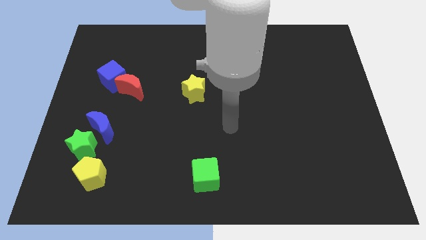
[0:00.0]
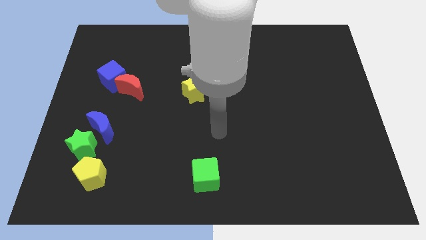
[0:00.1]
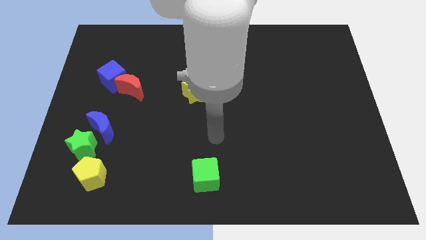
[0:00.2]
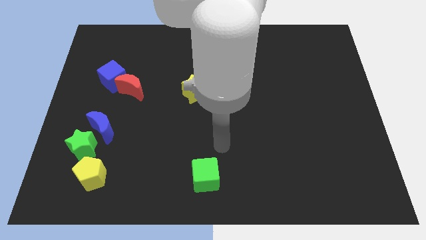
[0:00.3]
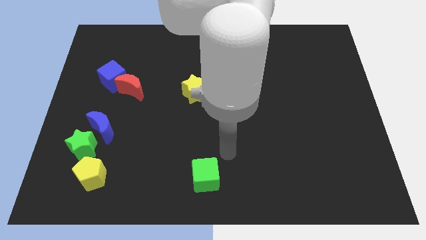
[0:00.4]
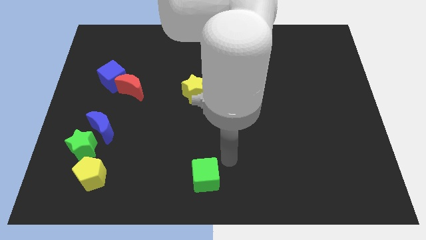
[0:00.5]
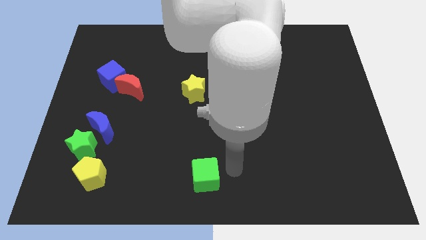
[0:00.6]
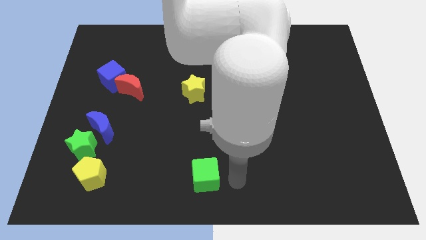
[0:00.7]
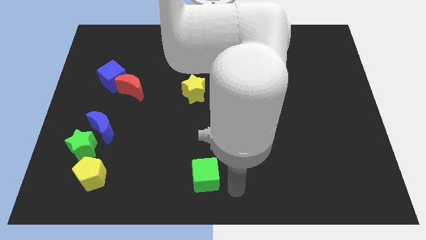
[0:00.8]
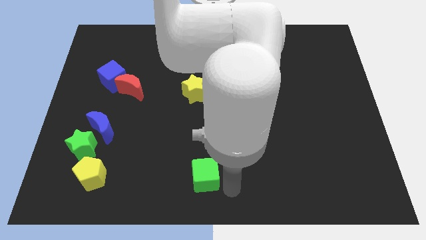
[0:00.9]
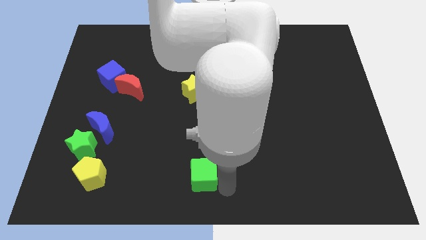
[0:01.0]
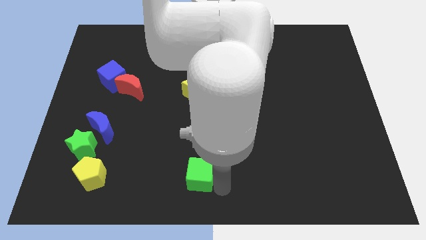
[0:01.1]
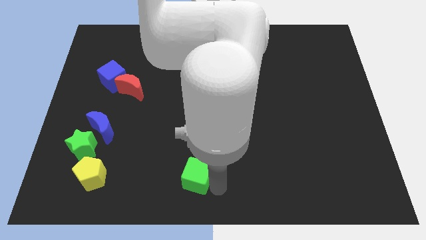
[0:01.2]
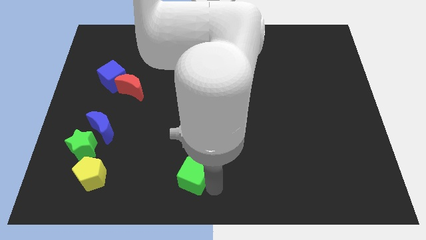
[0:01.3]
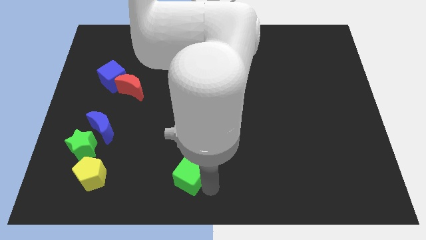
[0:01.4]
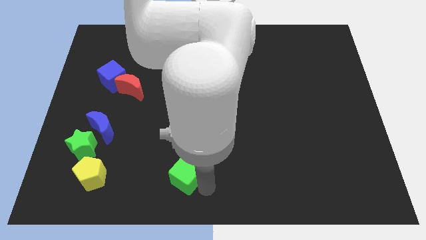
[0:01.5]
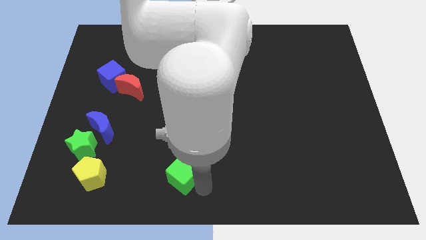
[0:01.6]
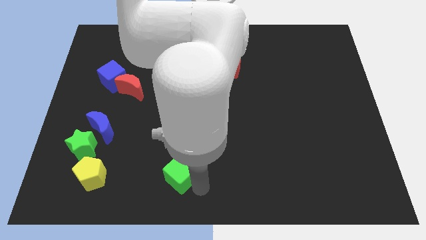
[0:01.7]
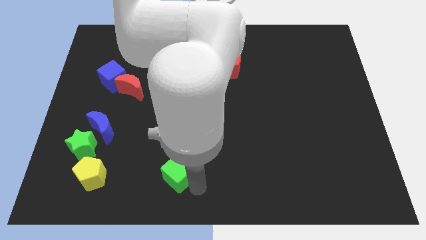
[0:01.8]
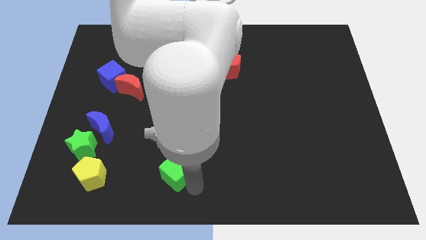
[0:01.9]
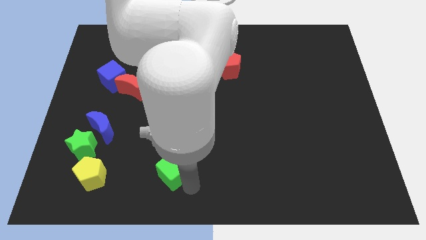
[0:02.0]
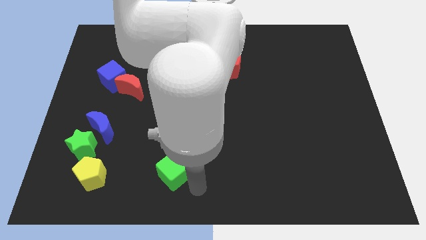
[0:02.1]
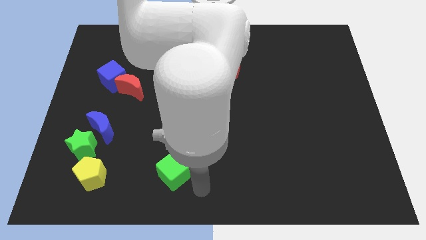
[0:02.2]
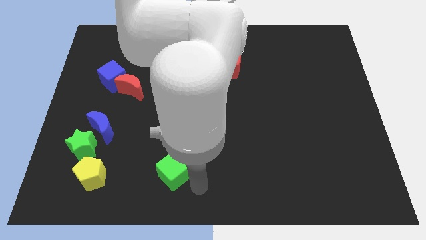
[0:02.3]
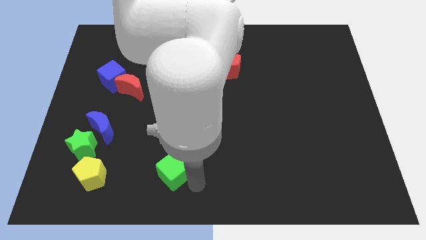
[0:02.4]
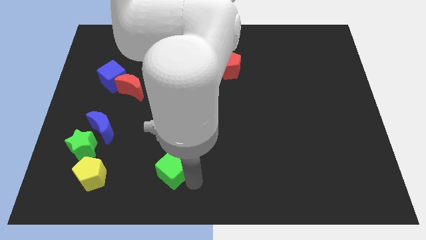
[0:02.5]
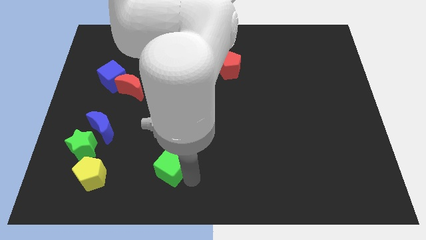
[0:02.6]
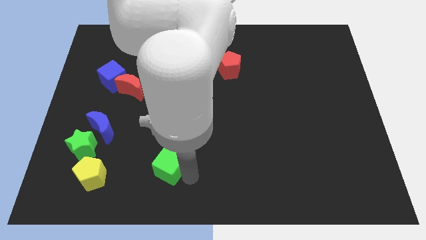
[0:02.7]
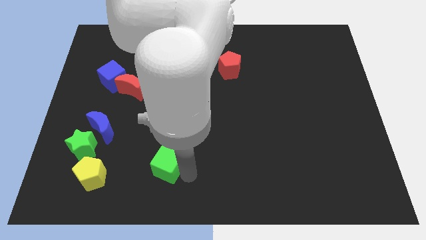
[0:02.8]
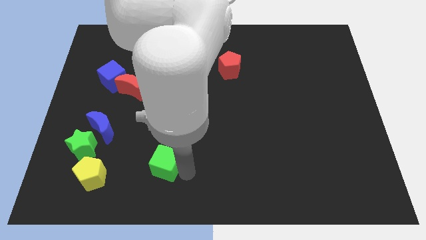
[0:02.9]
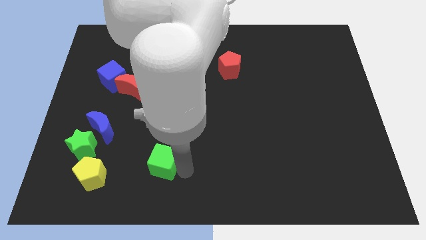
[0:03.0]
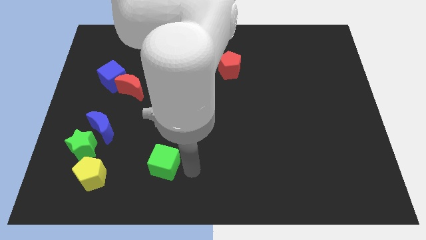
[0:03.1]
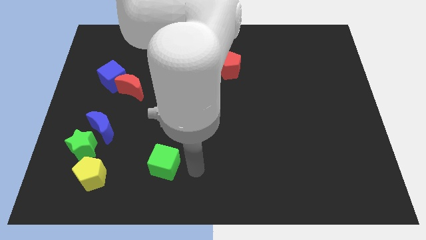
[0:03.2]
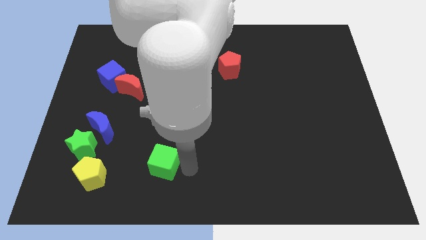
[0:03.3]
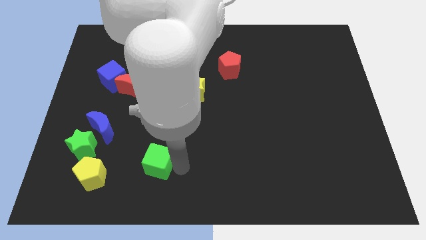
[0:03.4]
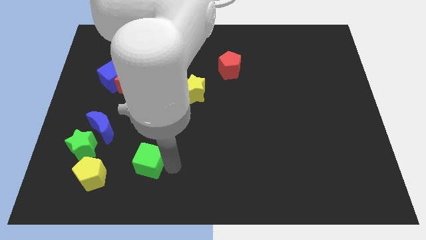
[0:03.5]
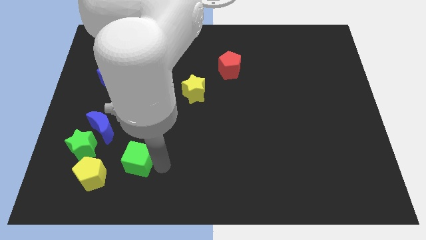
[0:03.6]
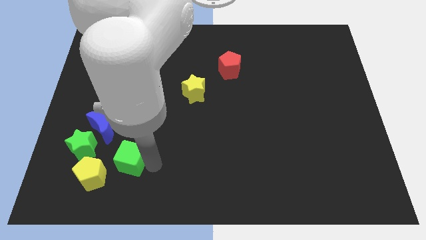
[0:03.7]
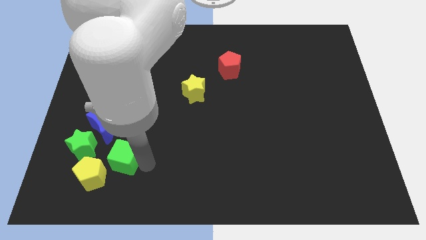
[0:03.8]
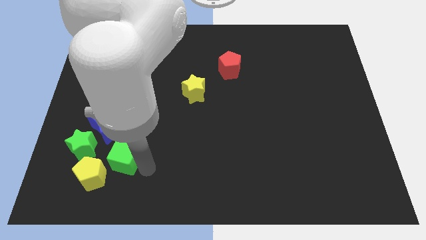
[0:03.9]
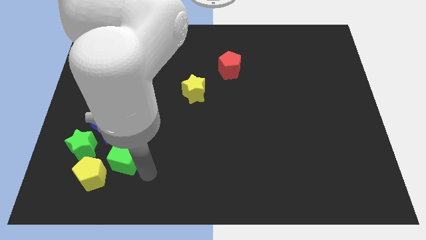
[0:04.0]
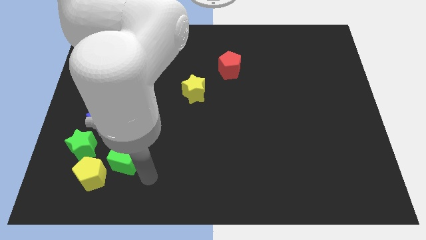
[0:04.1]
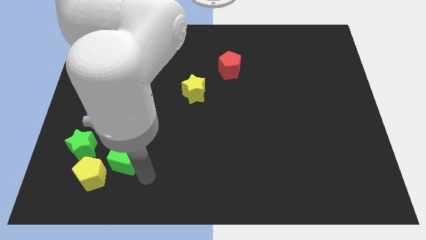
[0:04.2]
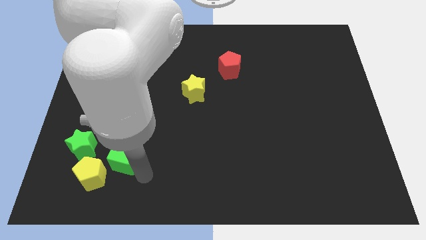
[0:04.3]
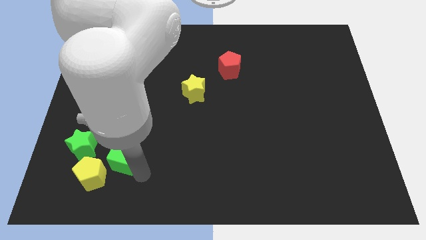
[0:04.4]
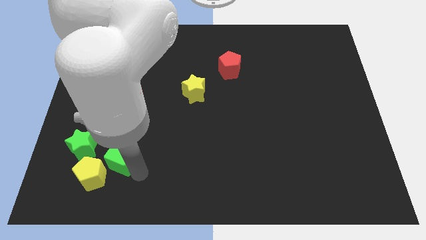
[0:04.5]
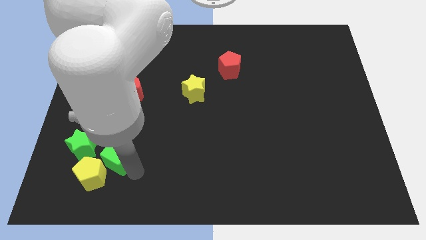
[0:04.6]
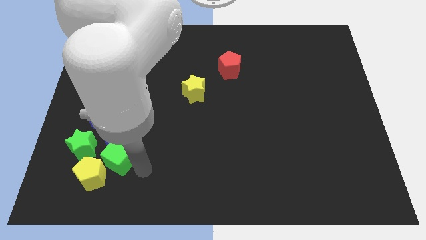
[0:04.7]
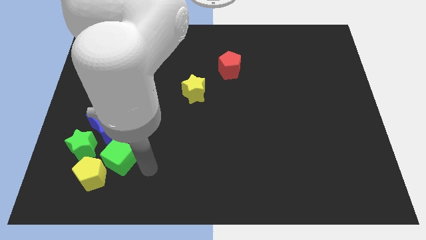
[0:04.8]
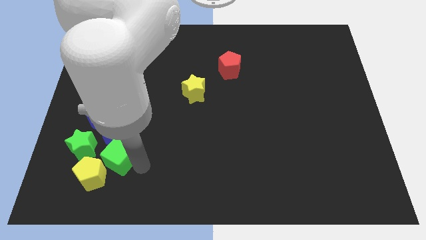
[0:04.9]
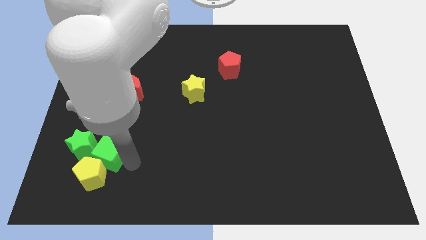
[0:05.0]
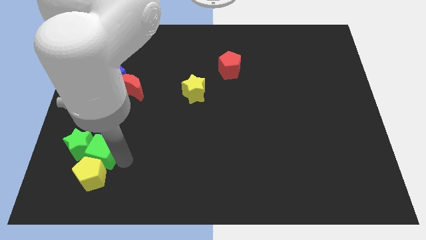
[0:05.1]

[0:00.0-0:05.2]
move the green cube to the green star

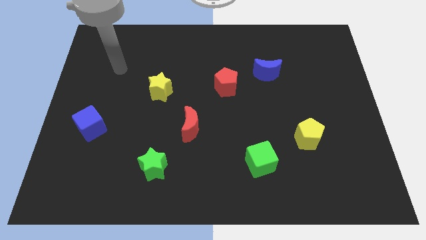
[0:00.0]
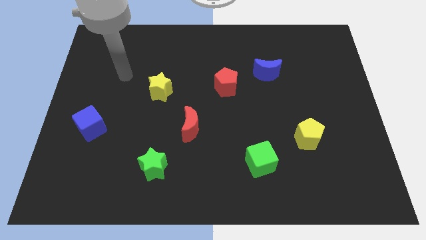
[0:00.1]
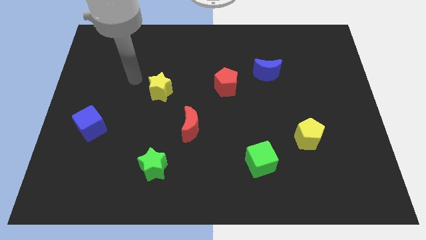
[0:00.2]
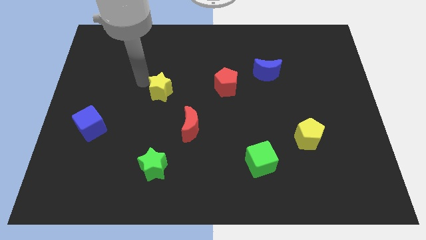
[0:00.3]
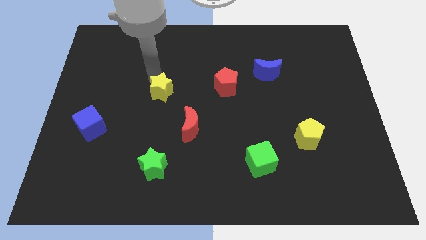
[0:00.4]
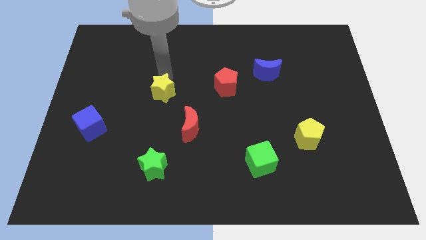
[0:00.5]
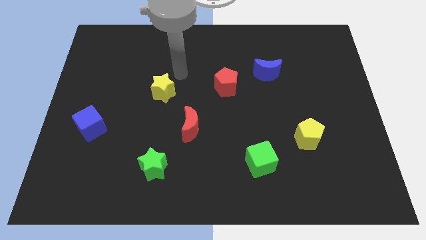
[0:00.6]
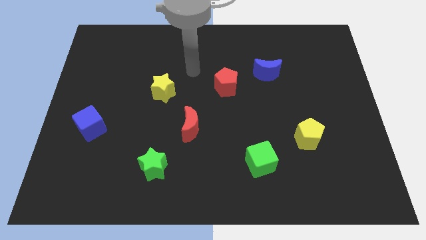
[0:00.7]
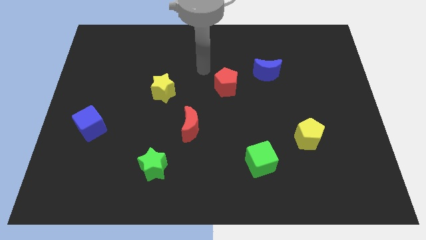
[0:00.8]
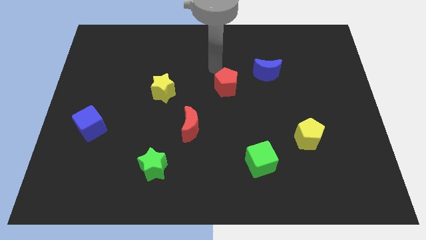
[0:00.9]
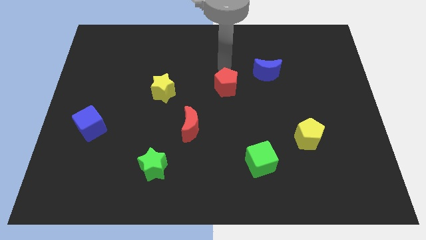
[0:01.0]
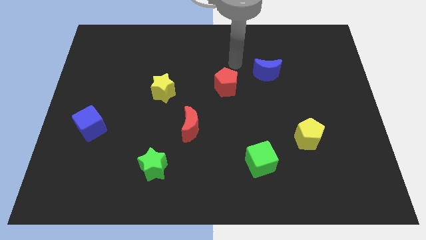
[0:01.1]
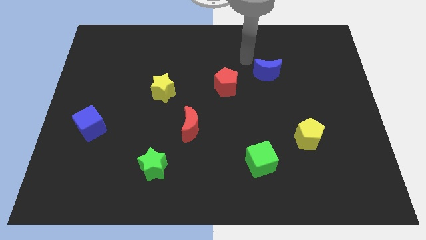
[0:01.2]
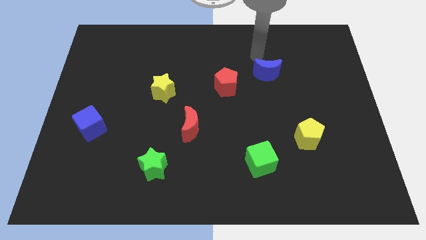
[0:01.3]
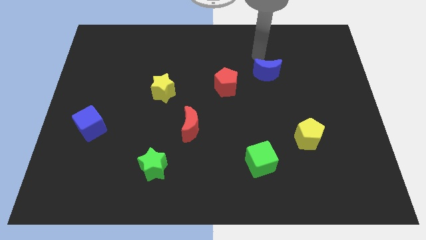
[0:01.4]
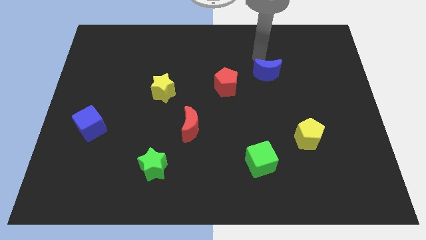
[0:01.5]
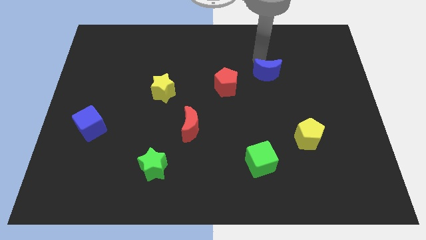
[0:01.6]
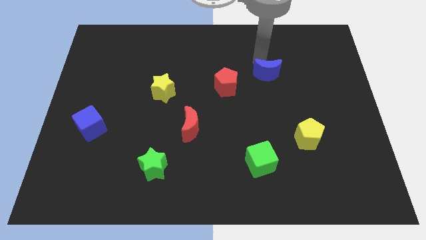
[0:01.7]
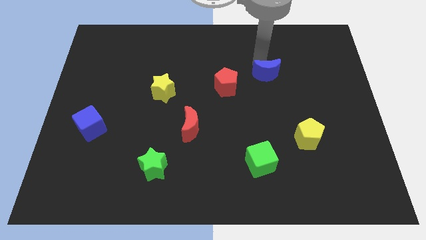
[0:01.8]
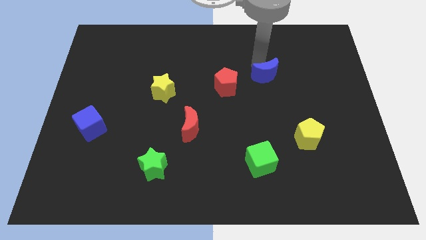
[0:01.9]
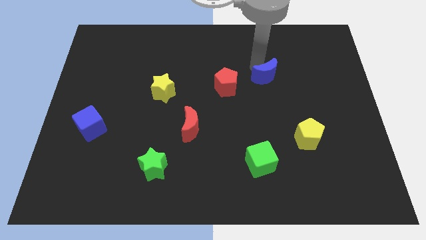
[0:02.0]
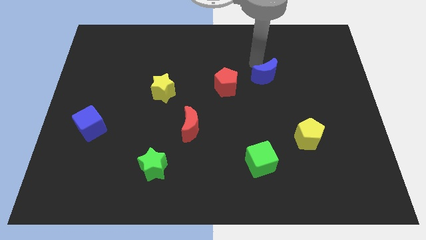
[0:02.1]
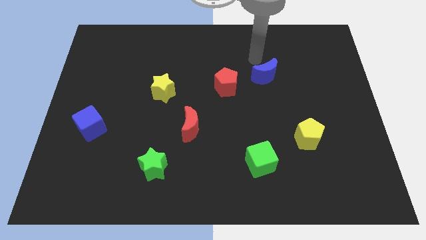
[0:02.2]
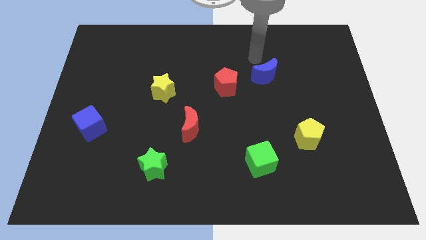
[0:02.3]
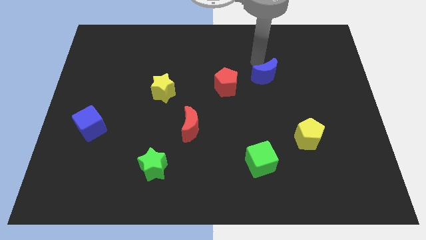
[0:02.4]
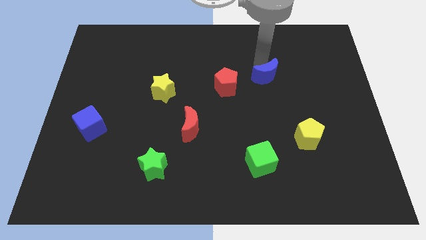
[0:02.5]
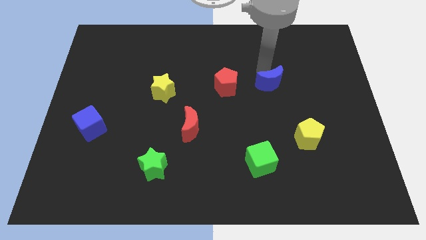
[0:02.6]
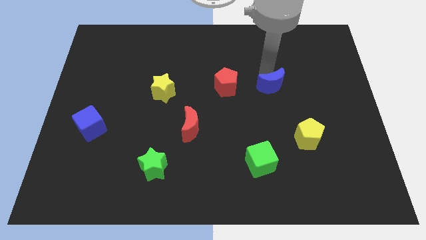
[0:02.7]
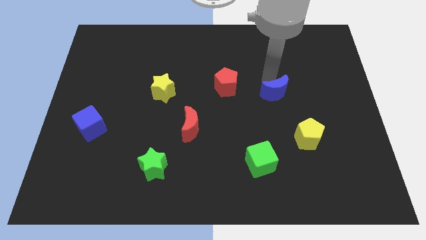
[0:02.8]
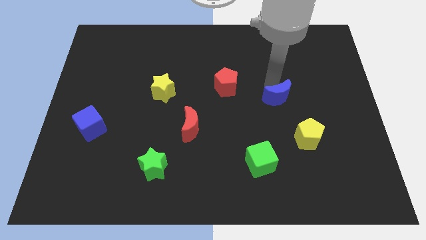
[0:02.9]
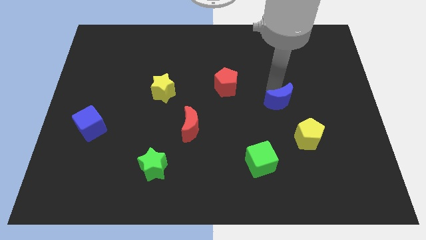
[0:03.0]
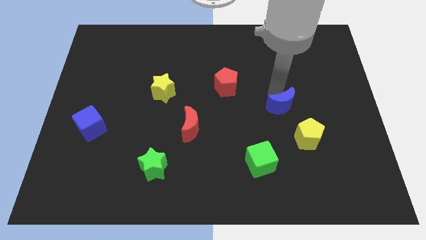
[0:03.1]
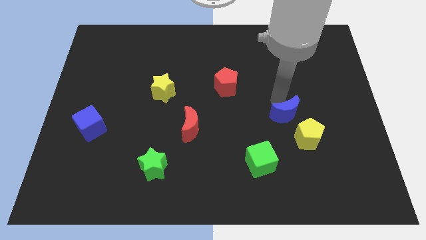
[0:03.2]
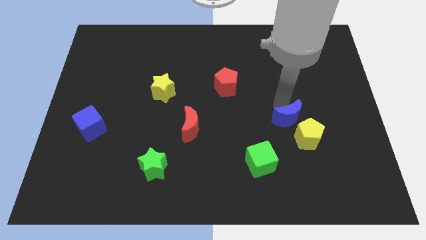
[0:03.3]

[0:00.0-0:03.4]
put the blue moon close to the yellow pentagon
